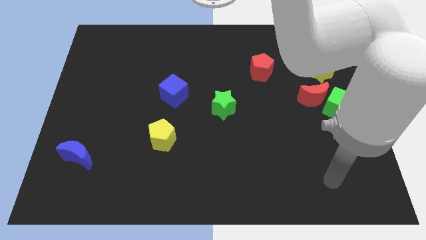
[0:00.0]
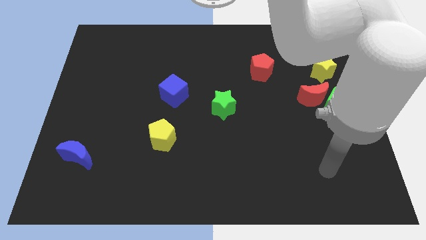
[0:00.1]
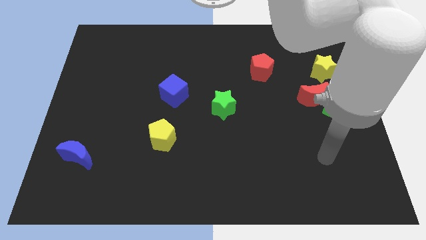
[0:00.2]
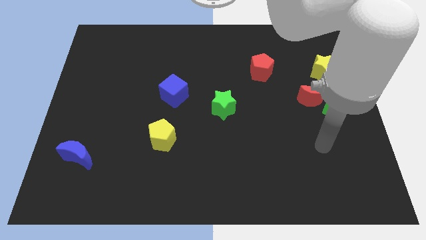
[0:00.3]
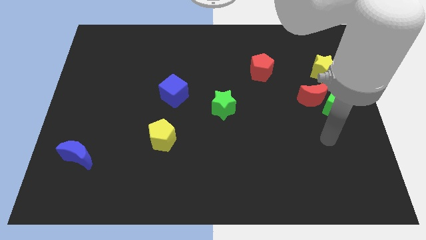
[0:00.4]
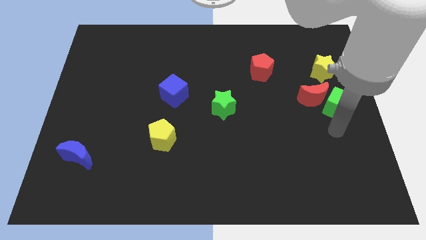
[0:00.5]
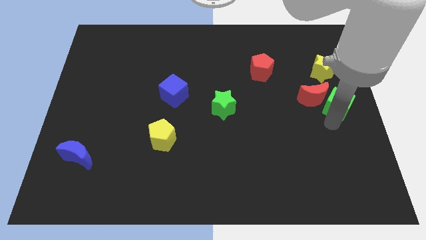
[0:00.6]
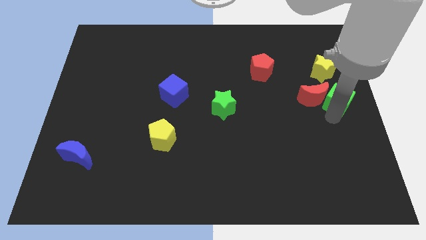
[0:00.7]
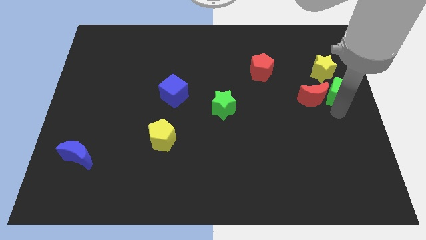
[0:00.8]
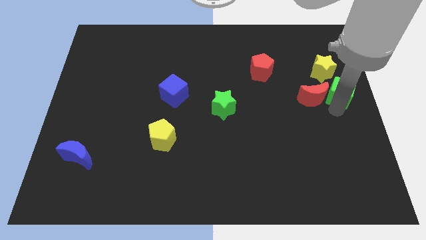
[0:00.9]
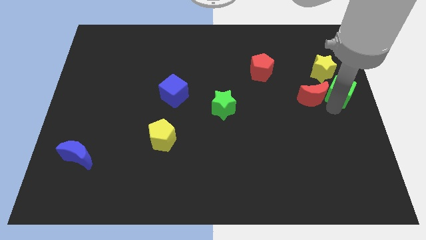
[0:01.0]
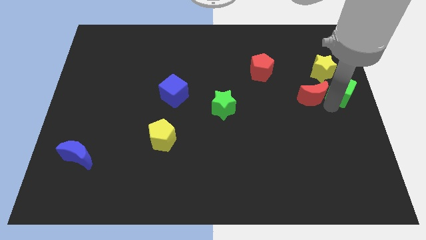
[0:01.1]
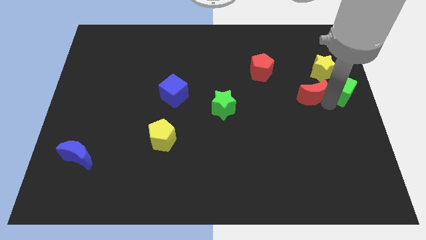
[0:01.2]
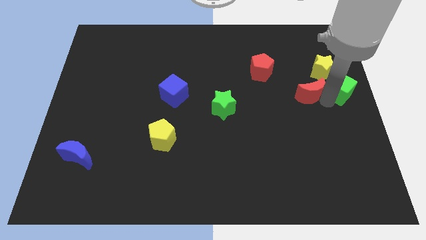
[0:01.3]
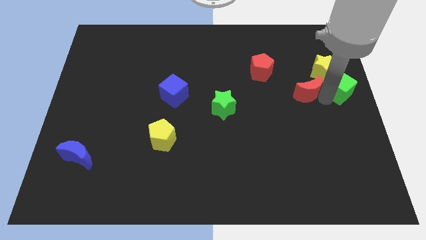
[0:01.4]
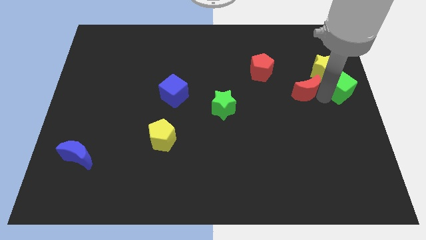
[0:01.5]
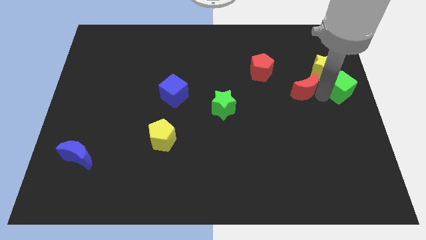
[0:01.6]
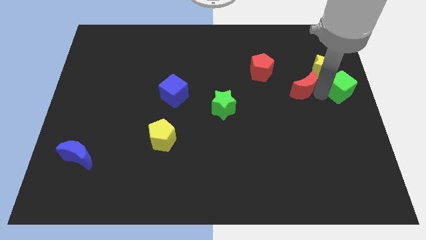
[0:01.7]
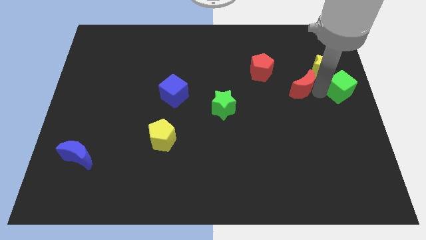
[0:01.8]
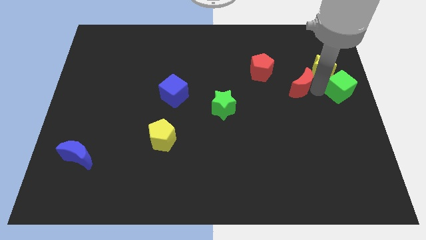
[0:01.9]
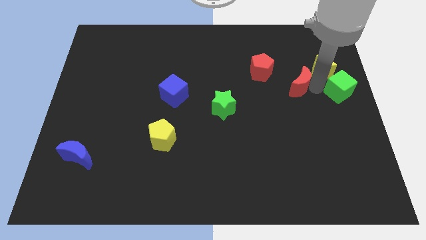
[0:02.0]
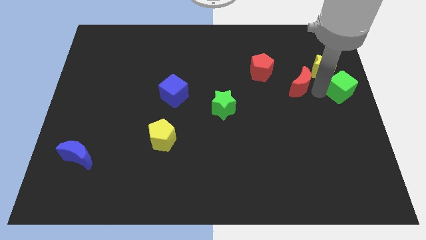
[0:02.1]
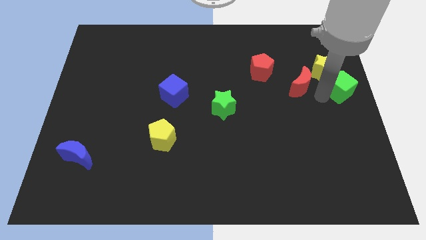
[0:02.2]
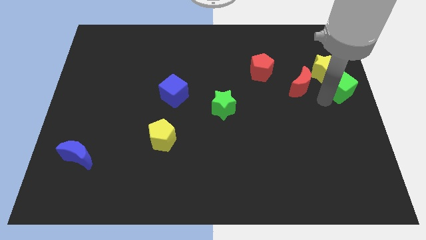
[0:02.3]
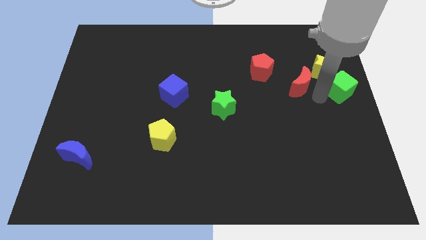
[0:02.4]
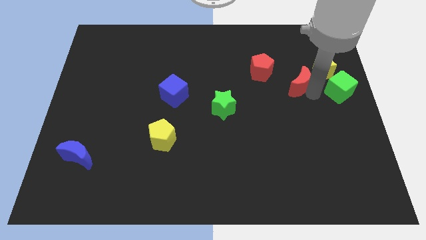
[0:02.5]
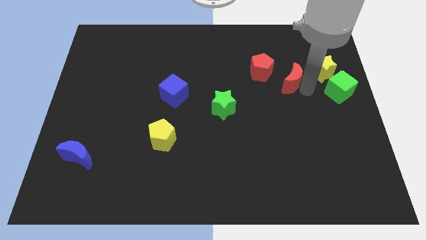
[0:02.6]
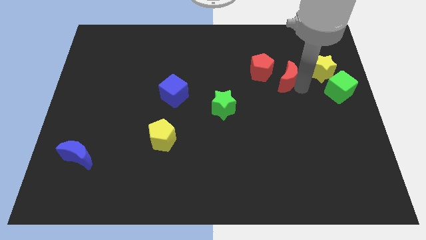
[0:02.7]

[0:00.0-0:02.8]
push the red moon upwards and to the left a bit

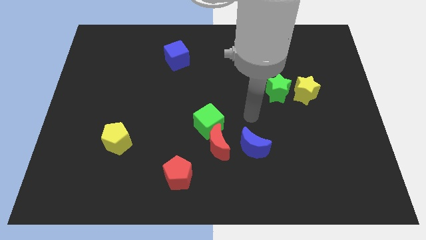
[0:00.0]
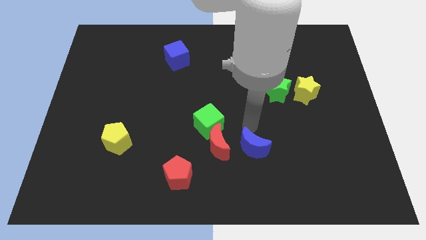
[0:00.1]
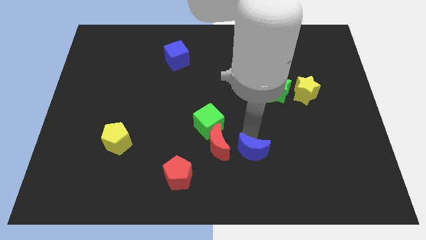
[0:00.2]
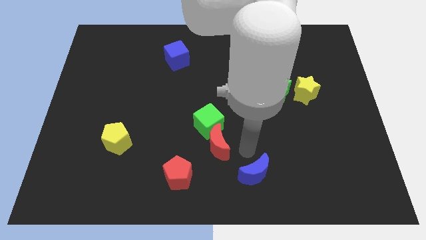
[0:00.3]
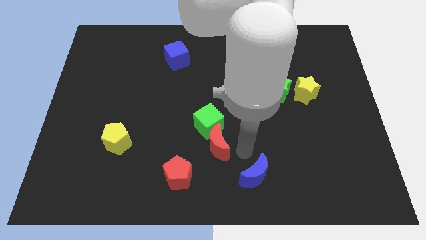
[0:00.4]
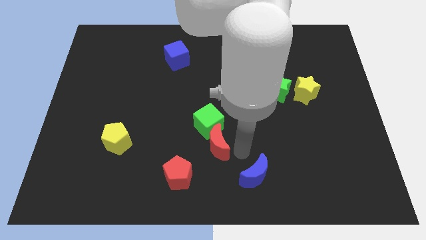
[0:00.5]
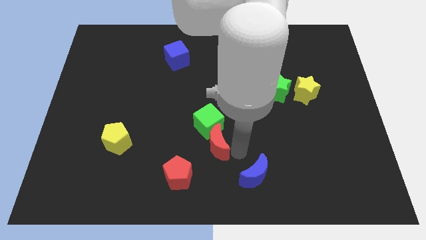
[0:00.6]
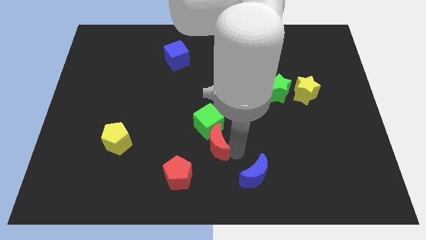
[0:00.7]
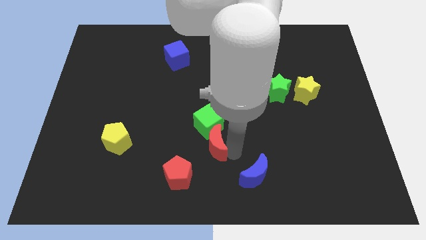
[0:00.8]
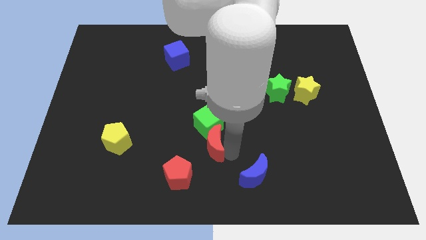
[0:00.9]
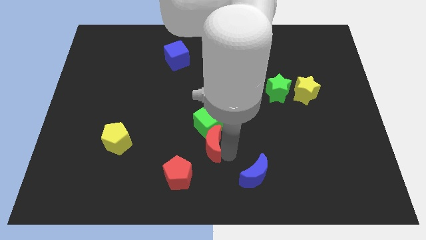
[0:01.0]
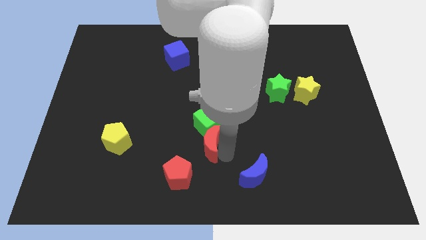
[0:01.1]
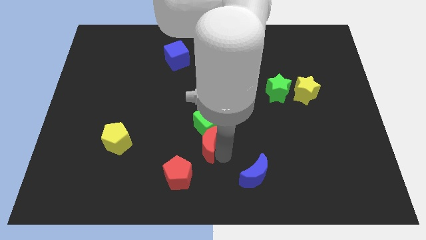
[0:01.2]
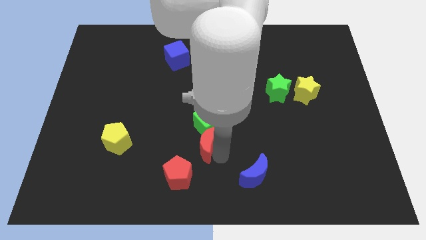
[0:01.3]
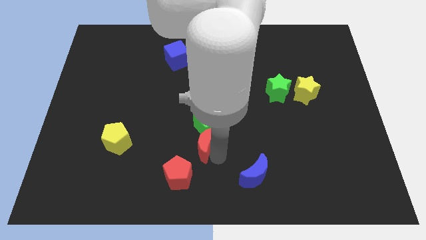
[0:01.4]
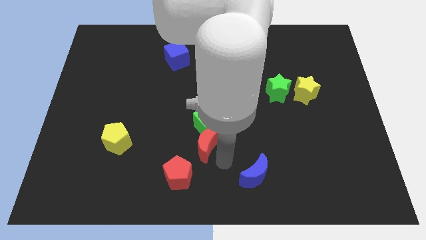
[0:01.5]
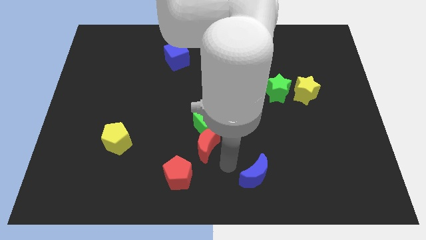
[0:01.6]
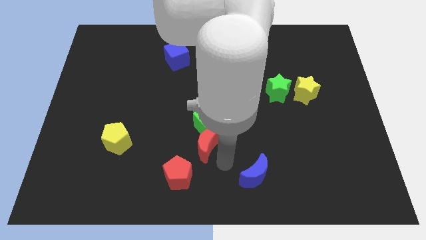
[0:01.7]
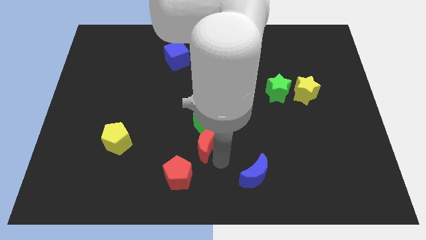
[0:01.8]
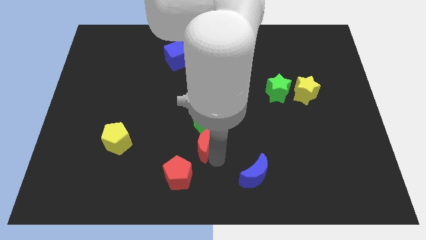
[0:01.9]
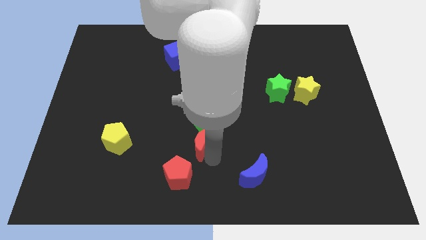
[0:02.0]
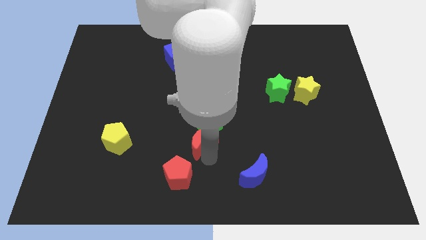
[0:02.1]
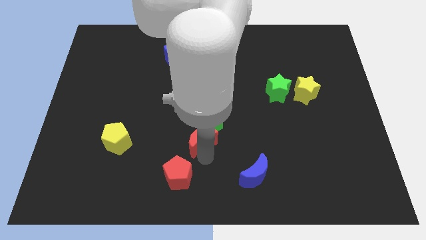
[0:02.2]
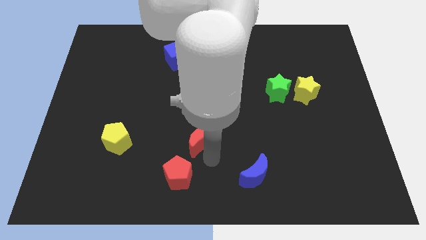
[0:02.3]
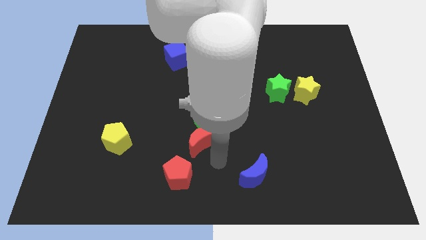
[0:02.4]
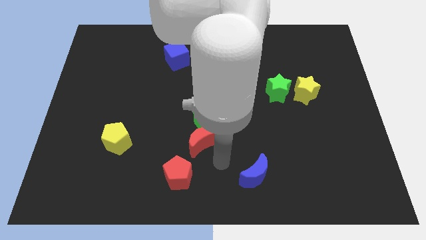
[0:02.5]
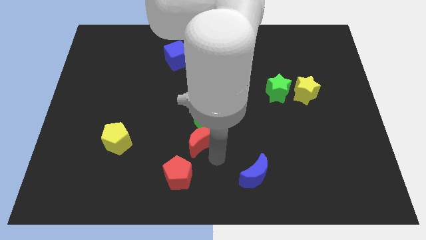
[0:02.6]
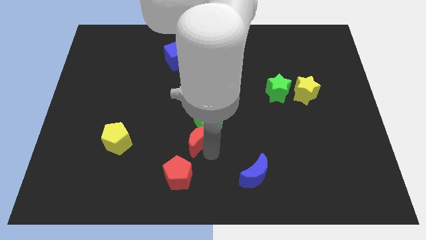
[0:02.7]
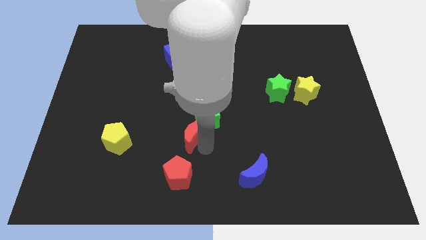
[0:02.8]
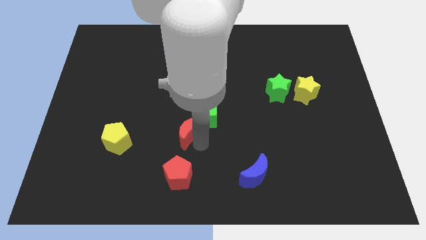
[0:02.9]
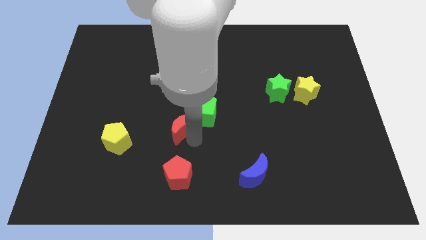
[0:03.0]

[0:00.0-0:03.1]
slightly slide the red moon diagonally up and left

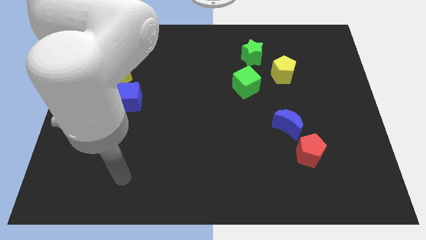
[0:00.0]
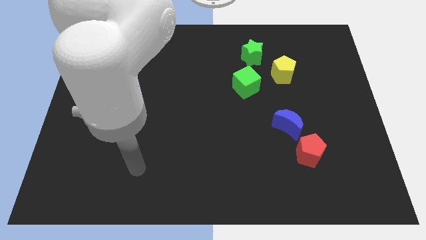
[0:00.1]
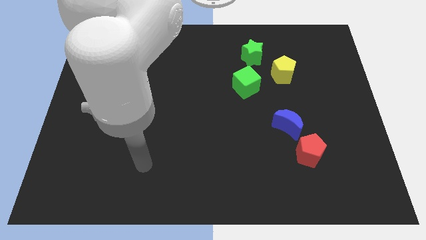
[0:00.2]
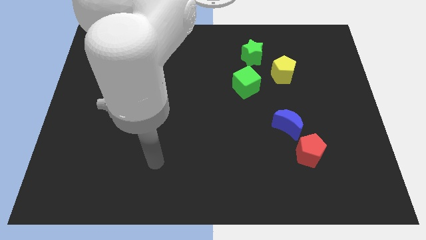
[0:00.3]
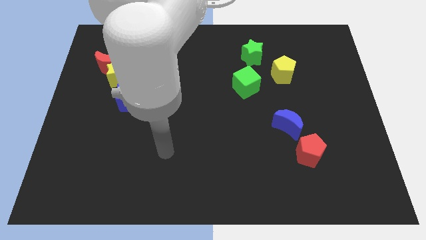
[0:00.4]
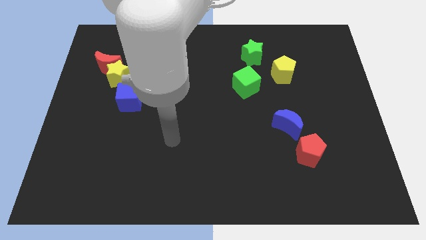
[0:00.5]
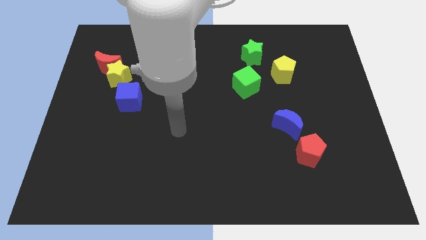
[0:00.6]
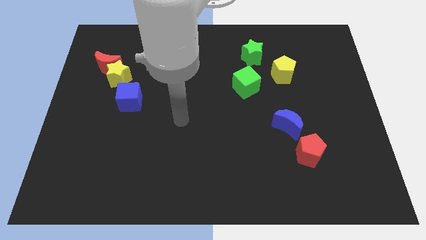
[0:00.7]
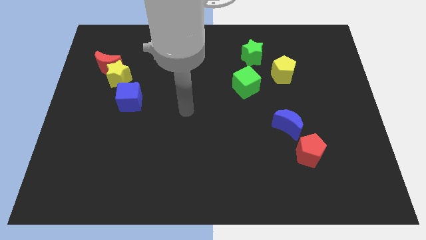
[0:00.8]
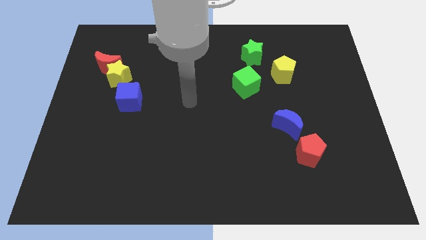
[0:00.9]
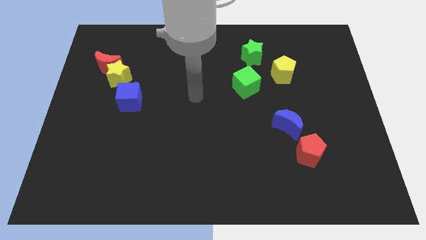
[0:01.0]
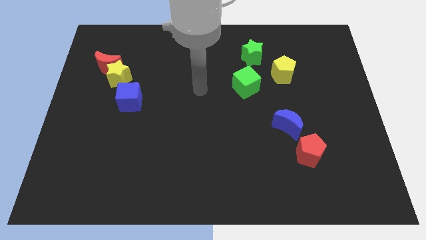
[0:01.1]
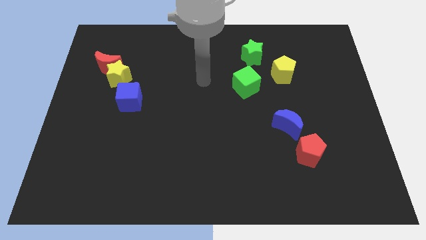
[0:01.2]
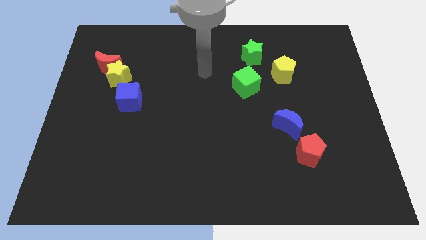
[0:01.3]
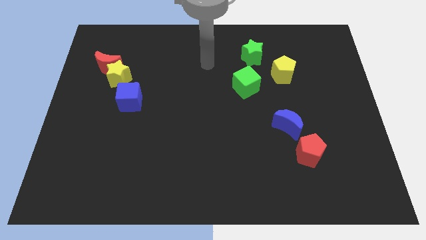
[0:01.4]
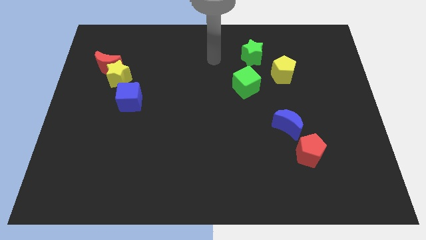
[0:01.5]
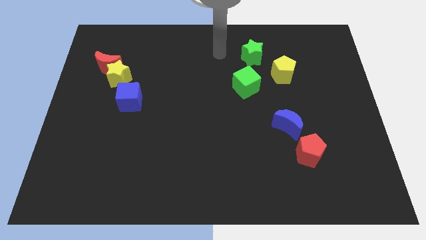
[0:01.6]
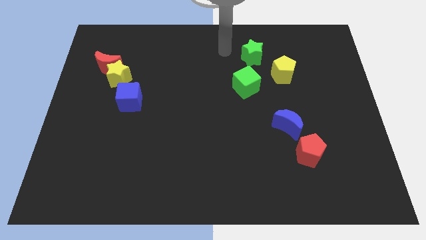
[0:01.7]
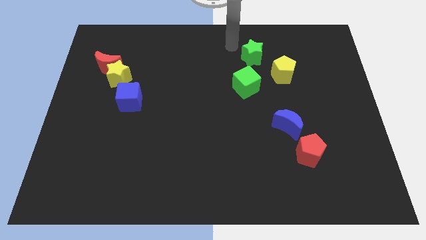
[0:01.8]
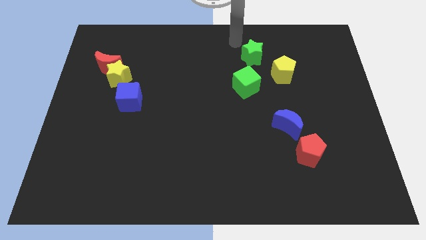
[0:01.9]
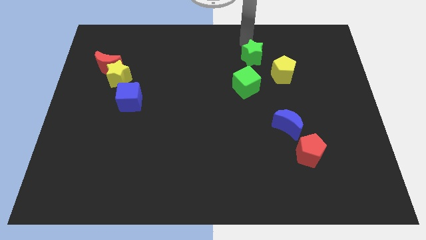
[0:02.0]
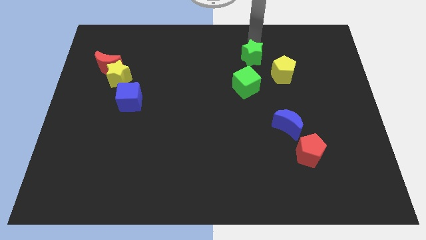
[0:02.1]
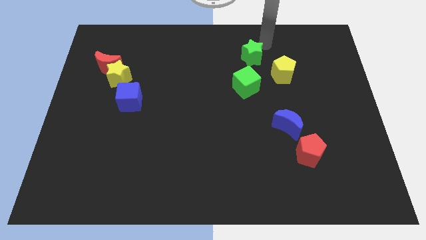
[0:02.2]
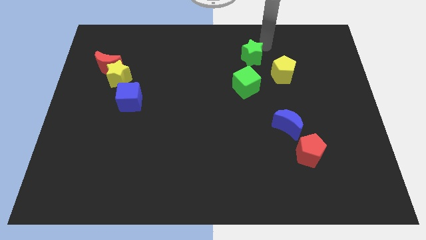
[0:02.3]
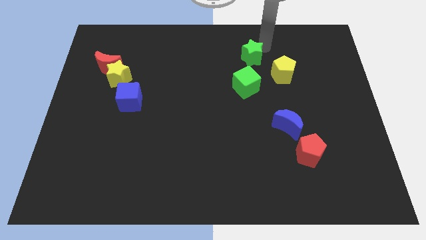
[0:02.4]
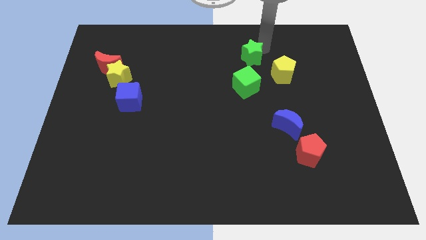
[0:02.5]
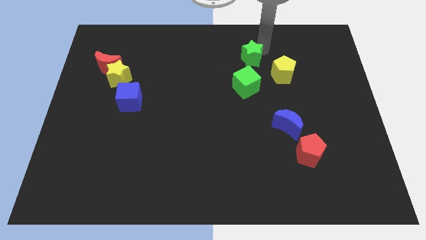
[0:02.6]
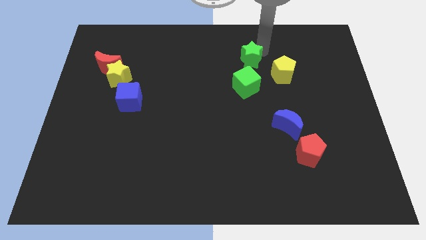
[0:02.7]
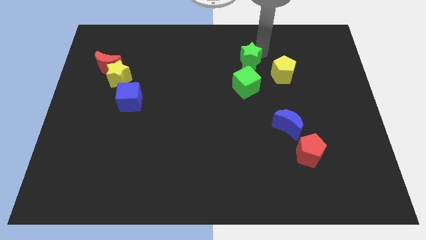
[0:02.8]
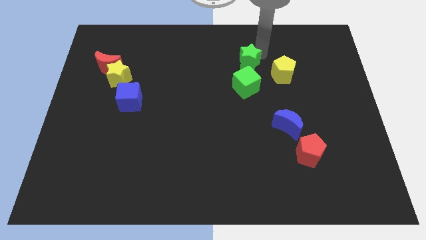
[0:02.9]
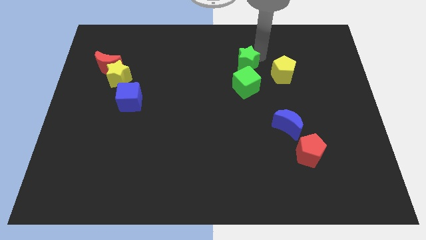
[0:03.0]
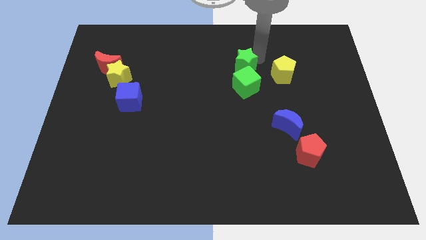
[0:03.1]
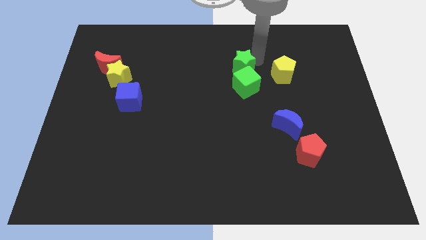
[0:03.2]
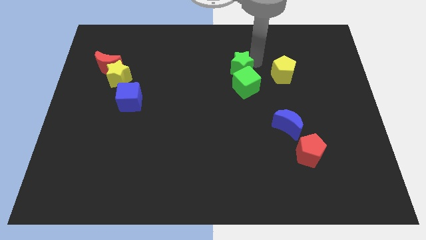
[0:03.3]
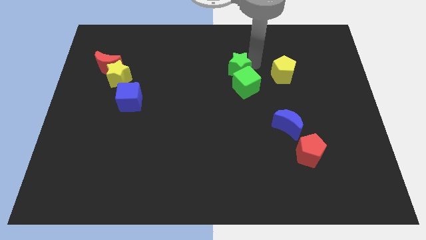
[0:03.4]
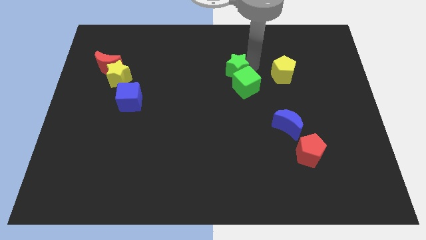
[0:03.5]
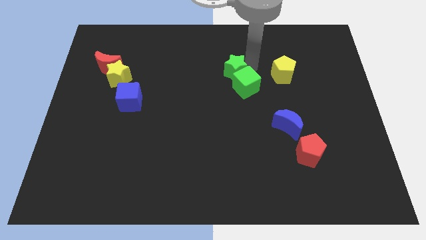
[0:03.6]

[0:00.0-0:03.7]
slightly slide the green star down and to the left
